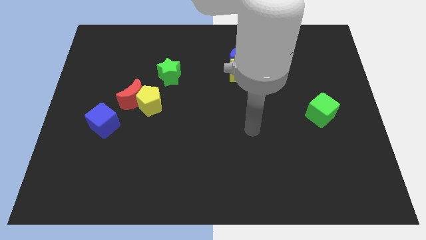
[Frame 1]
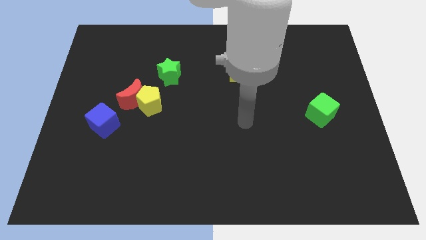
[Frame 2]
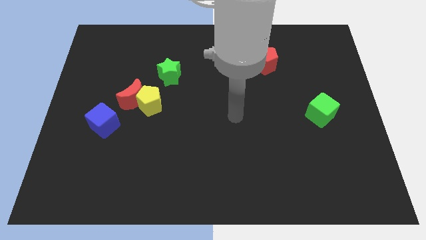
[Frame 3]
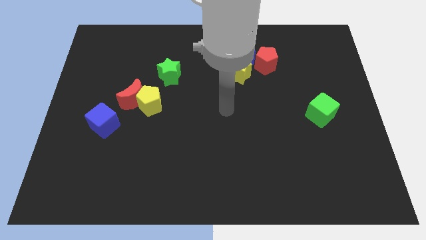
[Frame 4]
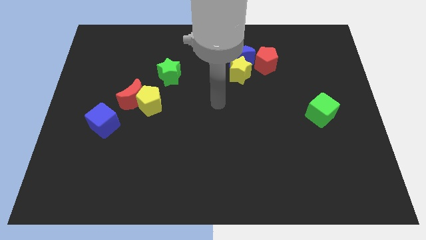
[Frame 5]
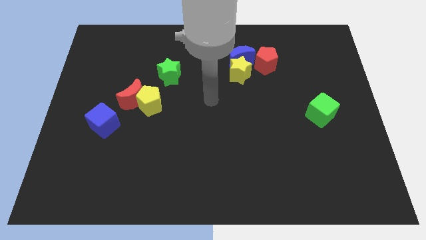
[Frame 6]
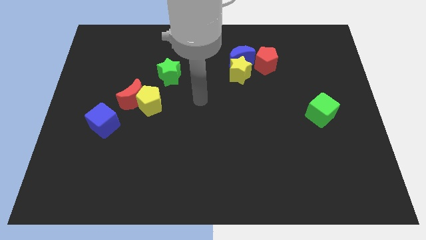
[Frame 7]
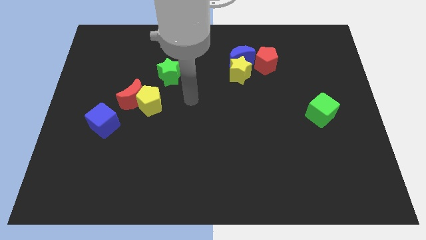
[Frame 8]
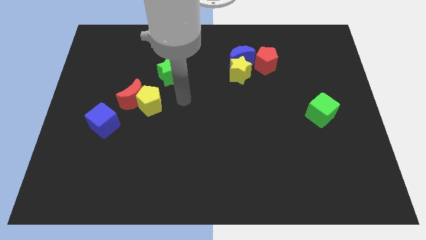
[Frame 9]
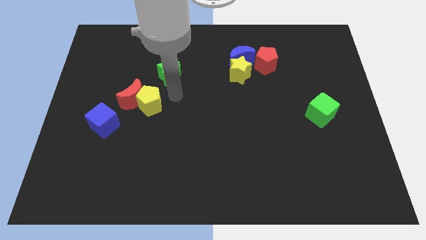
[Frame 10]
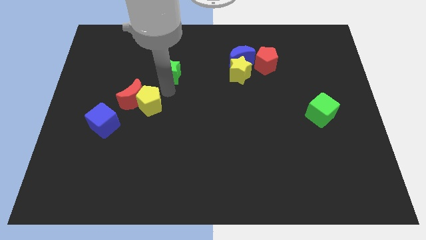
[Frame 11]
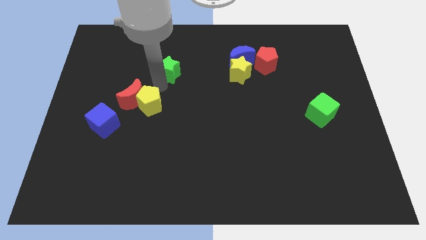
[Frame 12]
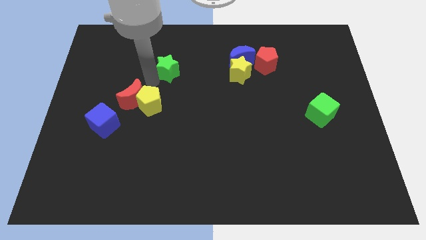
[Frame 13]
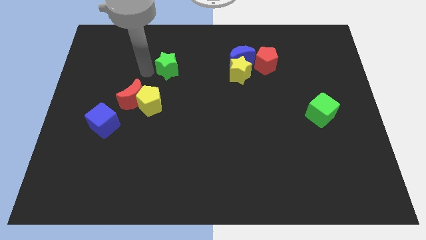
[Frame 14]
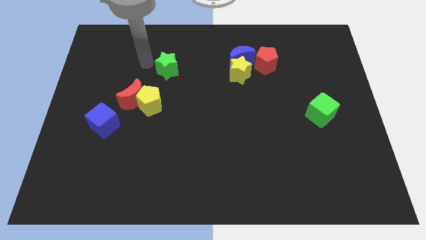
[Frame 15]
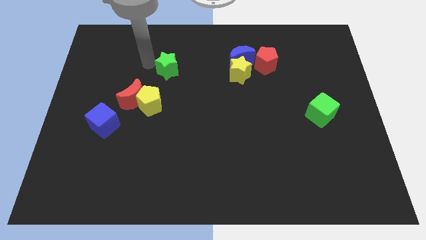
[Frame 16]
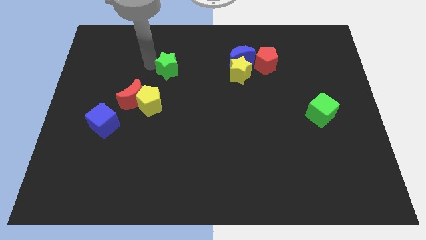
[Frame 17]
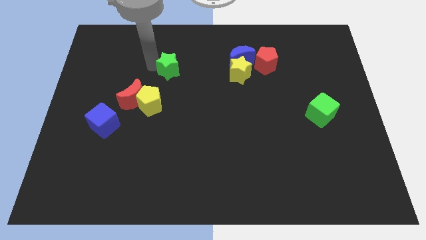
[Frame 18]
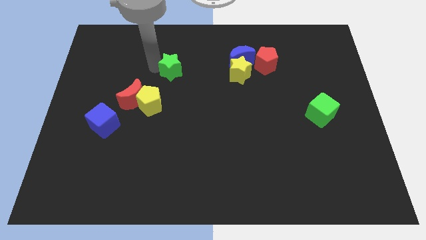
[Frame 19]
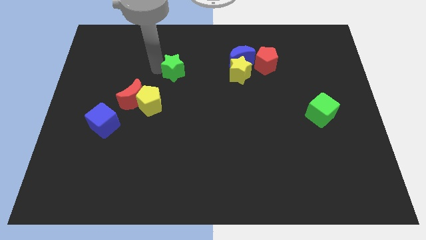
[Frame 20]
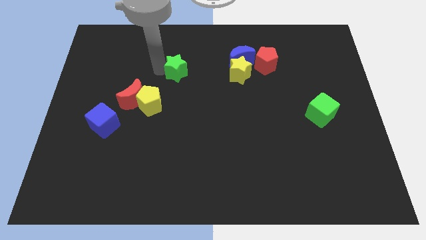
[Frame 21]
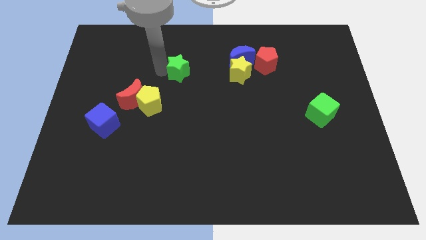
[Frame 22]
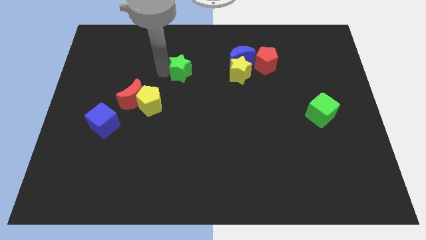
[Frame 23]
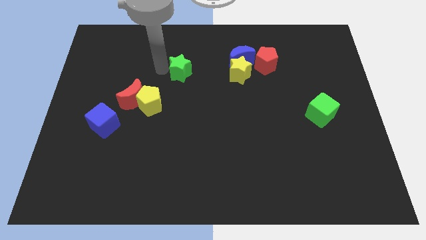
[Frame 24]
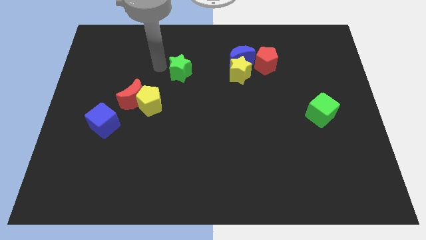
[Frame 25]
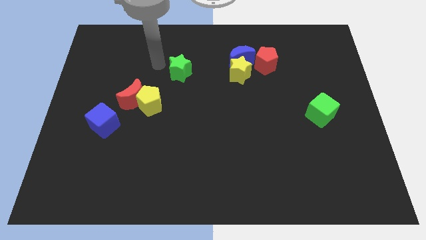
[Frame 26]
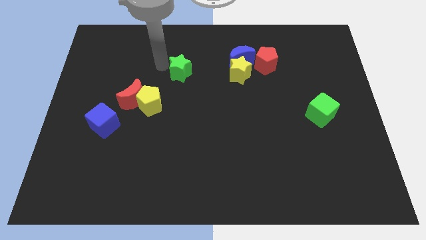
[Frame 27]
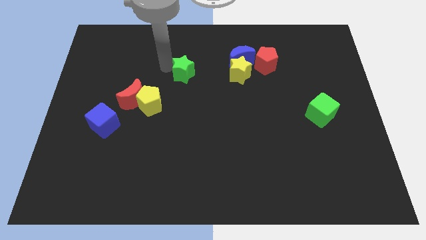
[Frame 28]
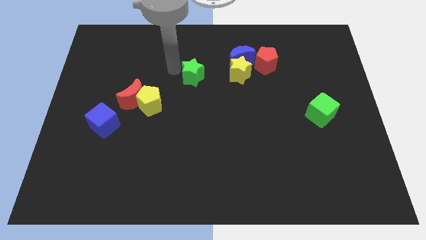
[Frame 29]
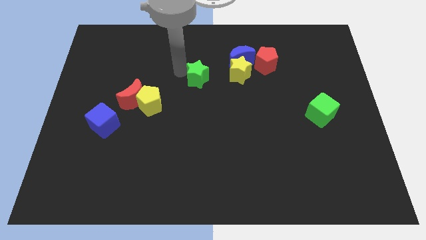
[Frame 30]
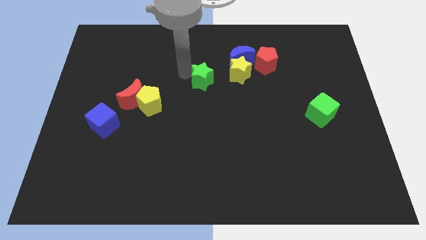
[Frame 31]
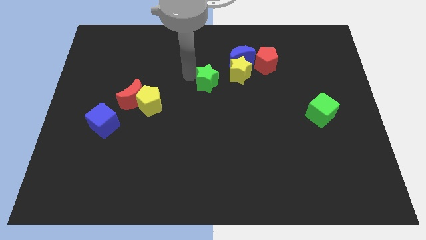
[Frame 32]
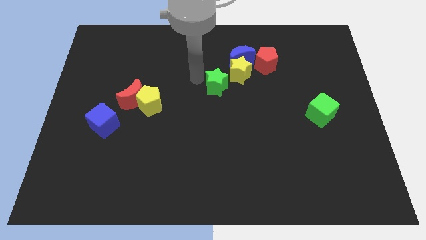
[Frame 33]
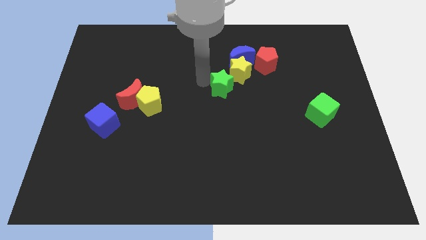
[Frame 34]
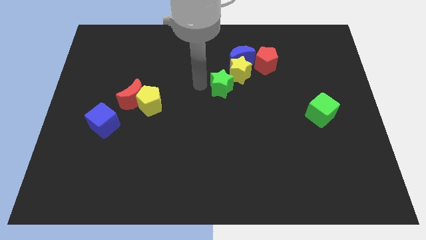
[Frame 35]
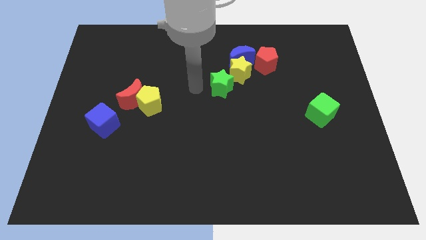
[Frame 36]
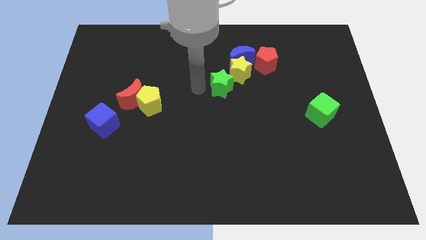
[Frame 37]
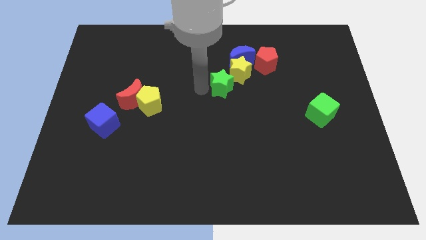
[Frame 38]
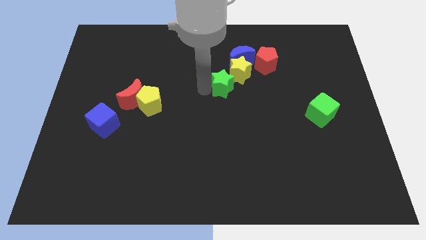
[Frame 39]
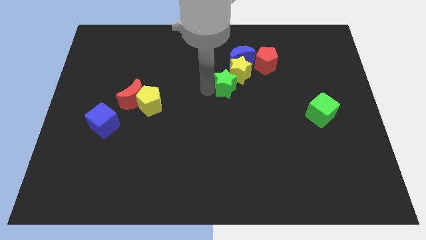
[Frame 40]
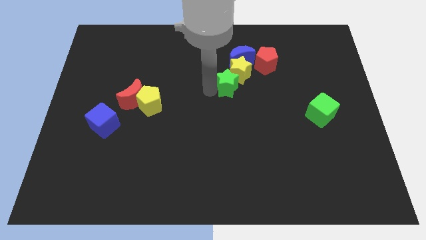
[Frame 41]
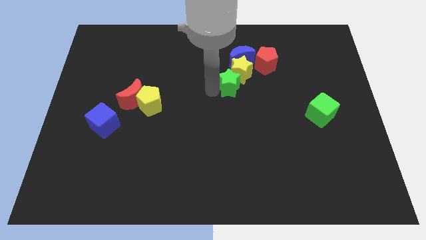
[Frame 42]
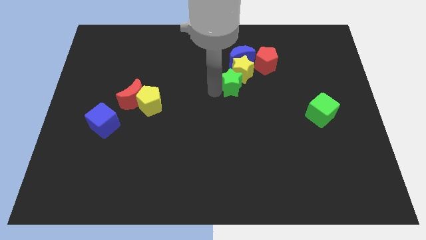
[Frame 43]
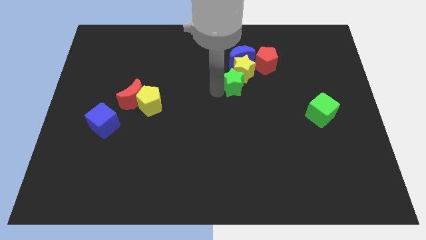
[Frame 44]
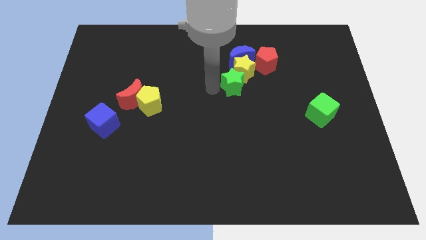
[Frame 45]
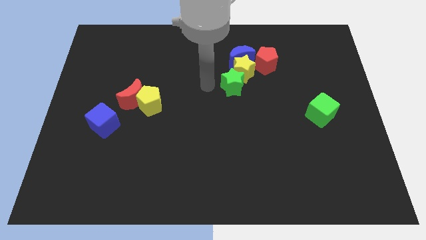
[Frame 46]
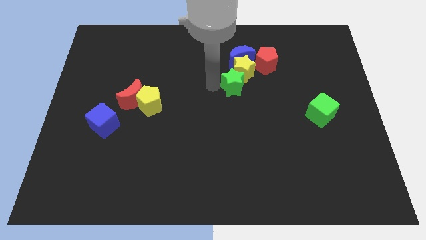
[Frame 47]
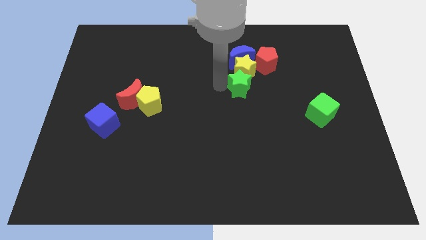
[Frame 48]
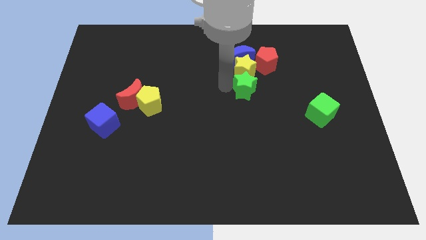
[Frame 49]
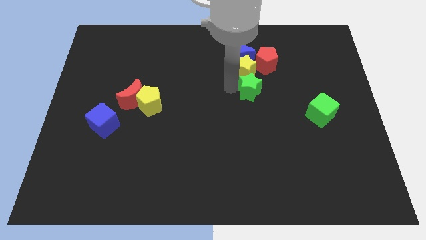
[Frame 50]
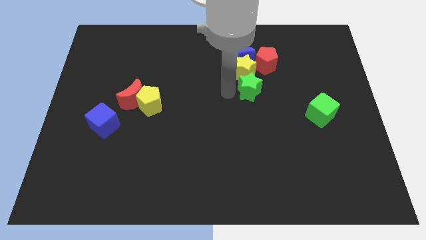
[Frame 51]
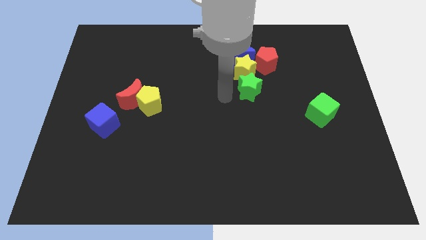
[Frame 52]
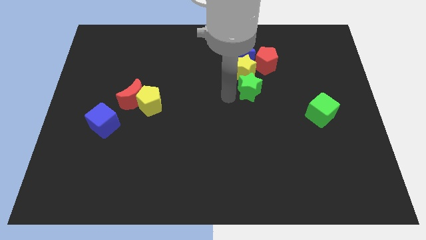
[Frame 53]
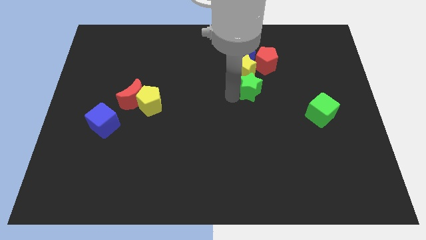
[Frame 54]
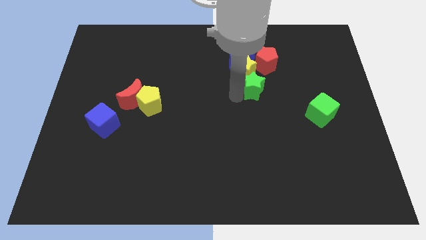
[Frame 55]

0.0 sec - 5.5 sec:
move the green star to the right

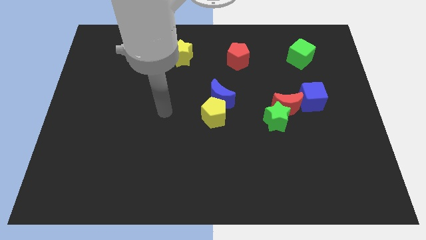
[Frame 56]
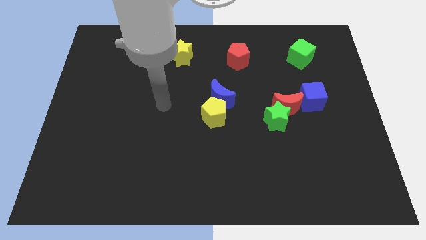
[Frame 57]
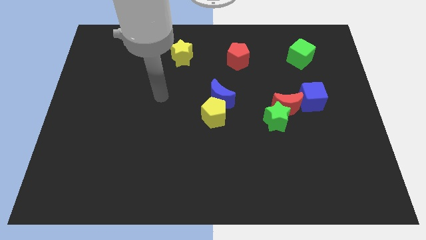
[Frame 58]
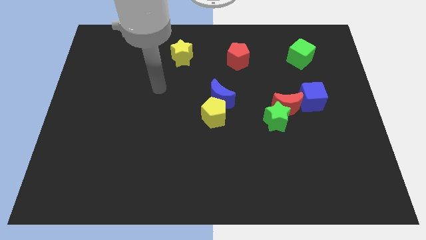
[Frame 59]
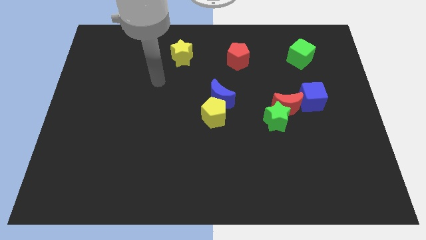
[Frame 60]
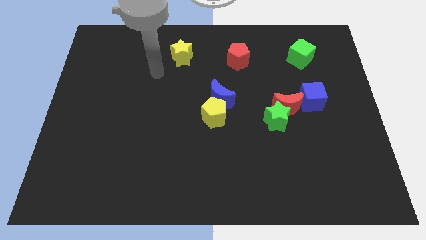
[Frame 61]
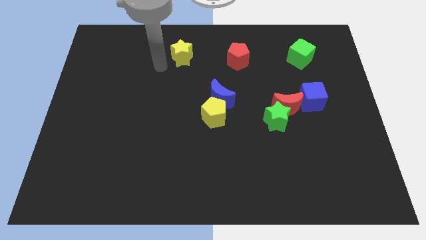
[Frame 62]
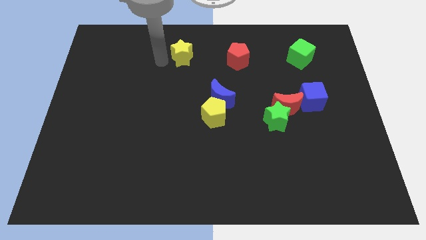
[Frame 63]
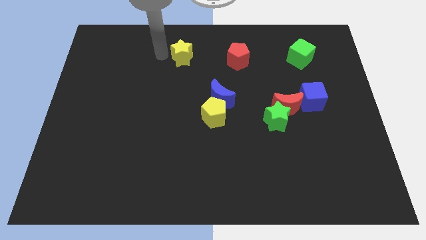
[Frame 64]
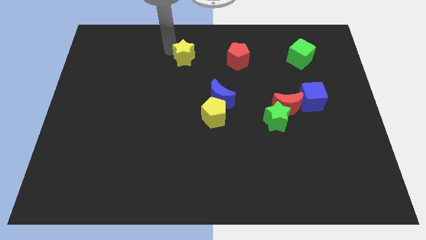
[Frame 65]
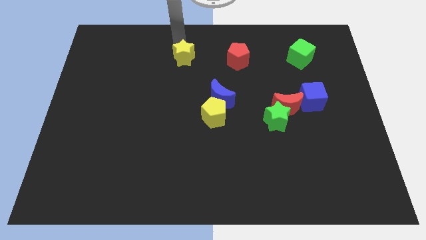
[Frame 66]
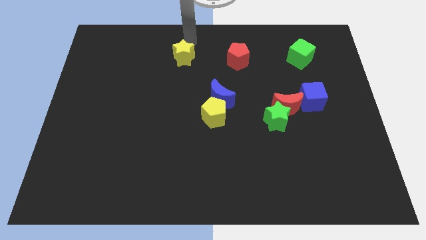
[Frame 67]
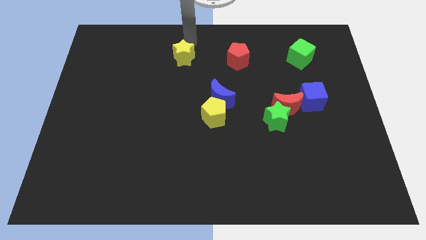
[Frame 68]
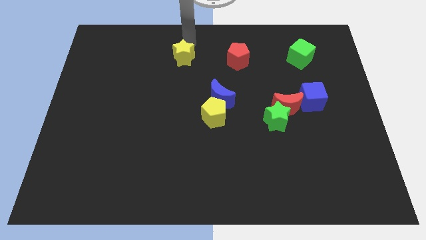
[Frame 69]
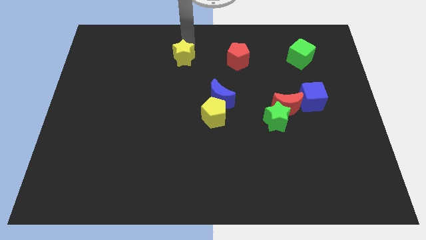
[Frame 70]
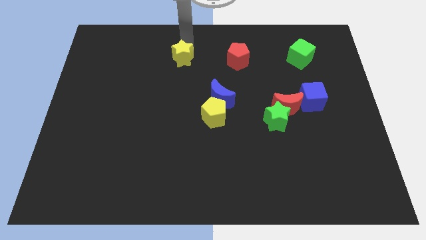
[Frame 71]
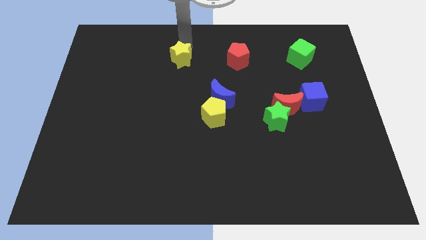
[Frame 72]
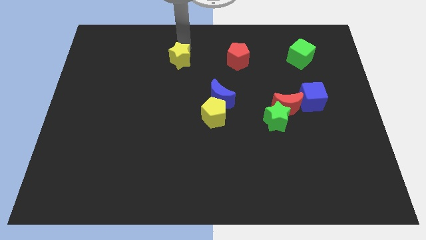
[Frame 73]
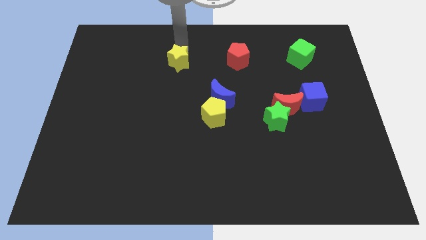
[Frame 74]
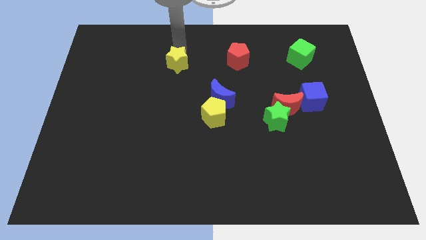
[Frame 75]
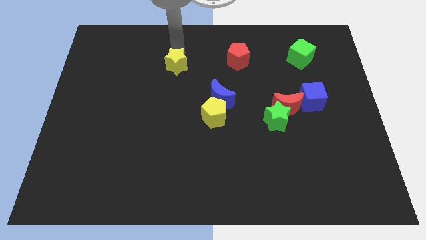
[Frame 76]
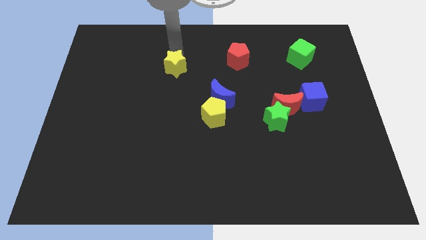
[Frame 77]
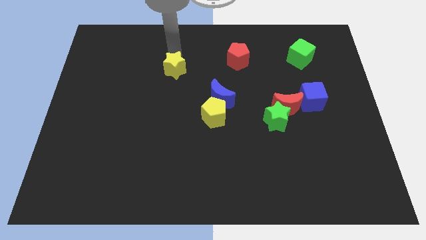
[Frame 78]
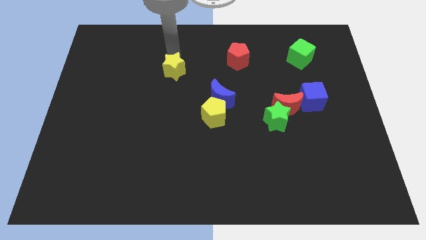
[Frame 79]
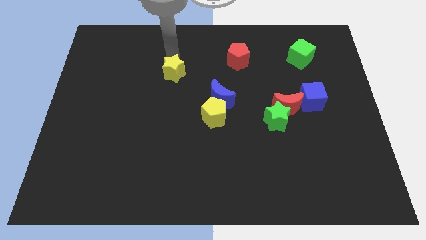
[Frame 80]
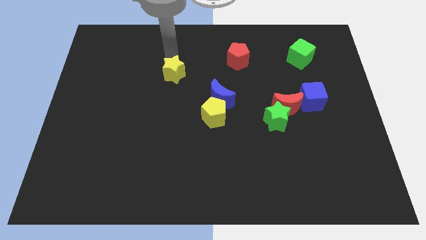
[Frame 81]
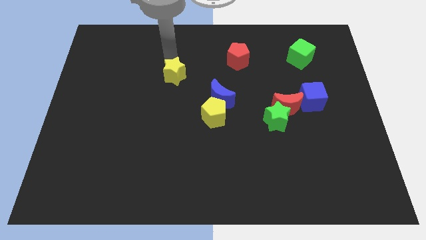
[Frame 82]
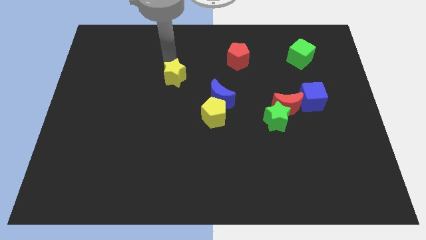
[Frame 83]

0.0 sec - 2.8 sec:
push the yellow star somewhat downwards
